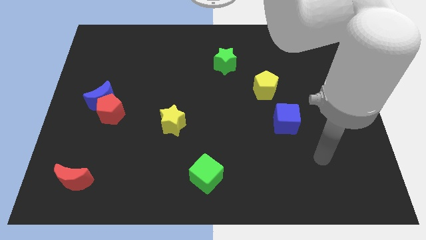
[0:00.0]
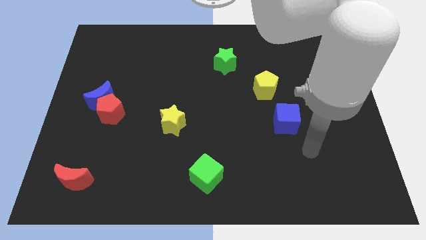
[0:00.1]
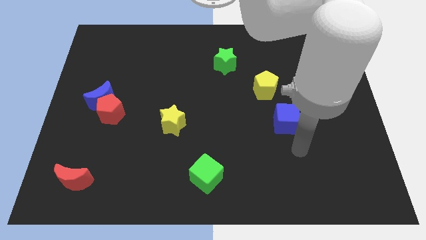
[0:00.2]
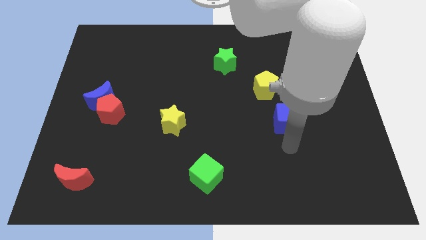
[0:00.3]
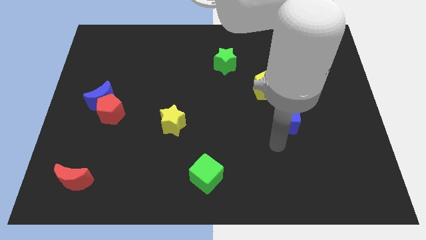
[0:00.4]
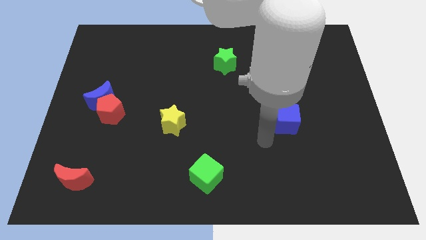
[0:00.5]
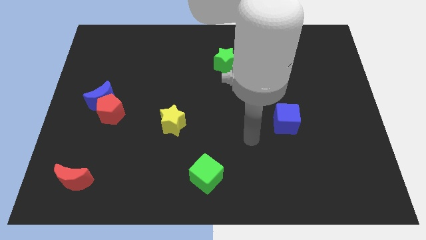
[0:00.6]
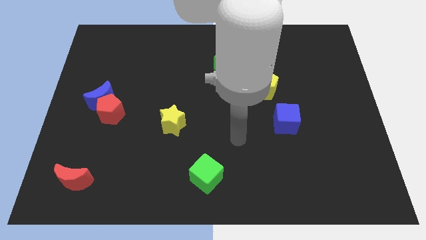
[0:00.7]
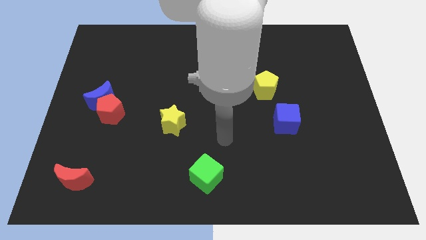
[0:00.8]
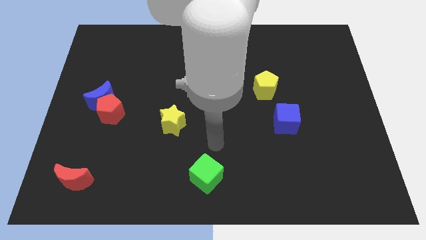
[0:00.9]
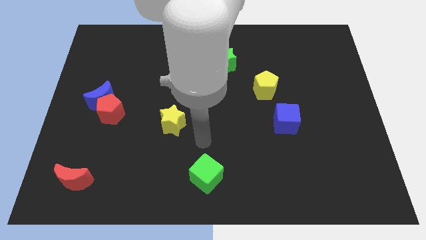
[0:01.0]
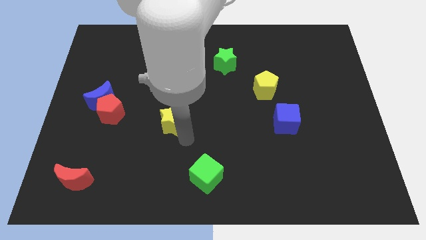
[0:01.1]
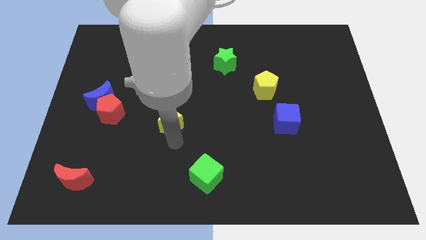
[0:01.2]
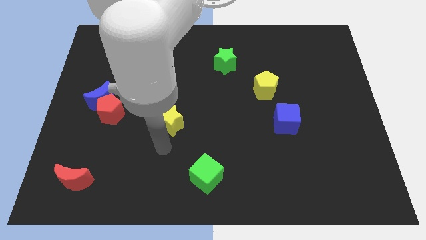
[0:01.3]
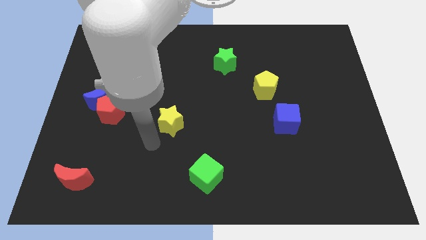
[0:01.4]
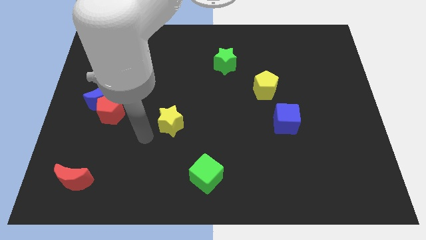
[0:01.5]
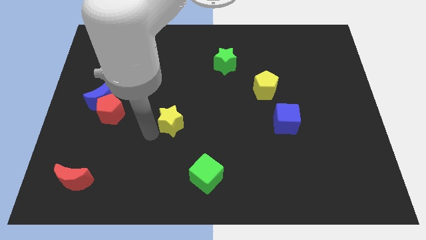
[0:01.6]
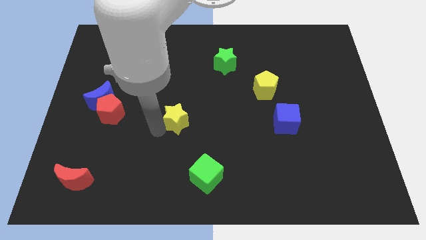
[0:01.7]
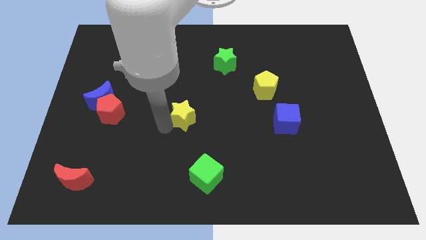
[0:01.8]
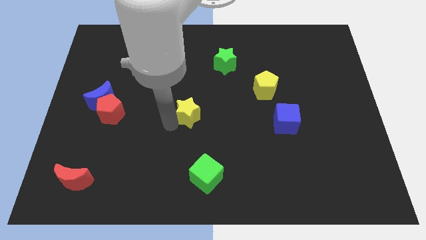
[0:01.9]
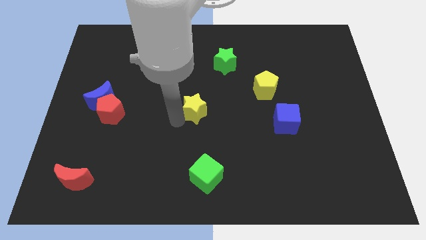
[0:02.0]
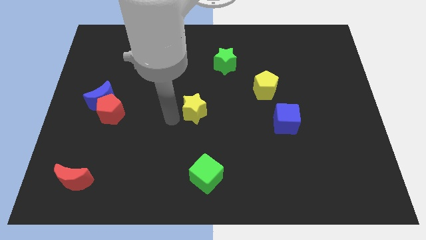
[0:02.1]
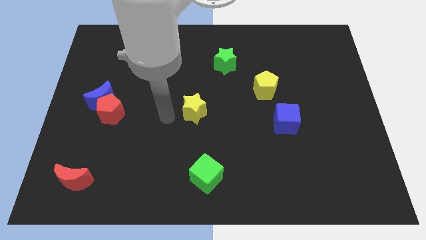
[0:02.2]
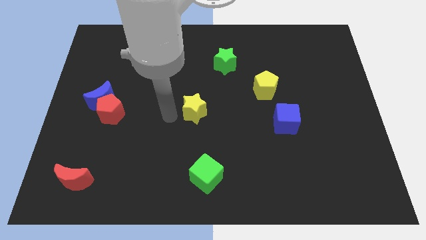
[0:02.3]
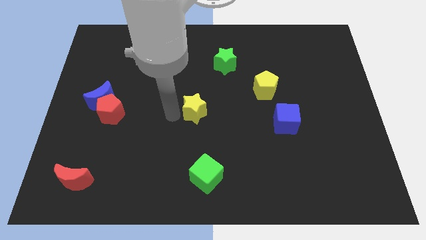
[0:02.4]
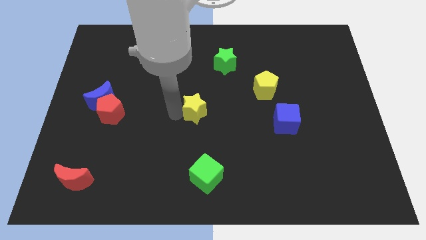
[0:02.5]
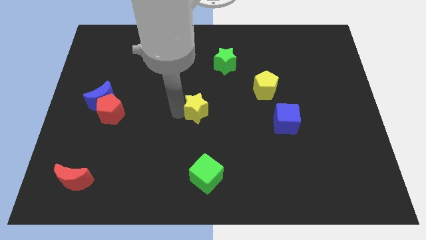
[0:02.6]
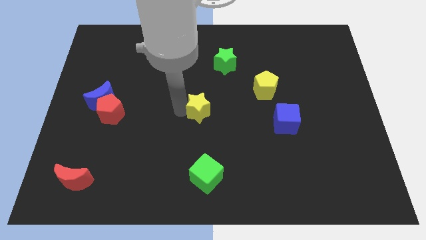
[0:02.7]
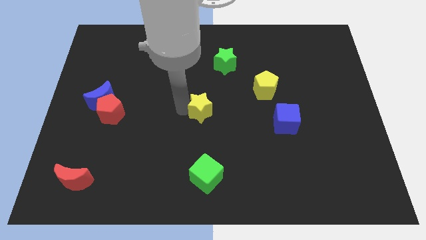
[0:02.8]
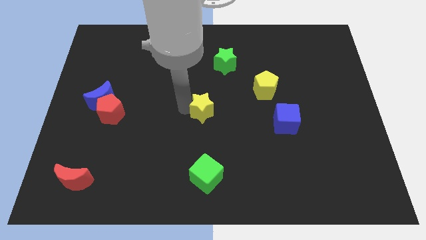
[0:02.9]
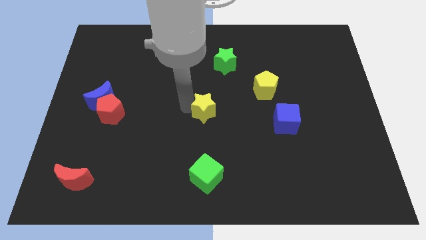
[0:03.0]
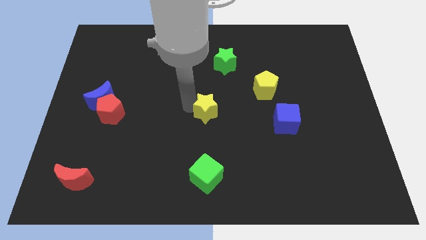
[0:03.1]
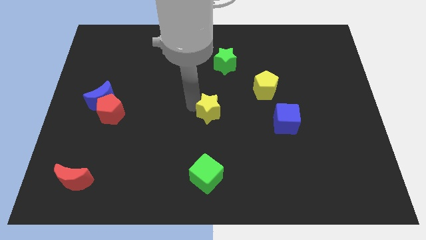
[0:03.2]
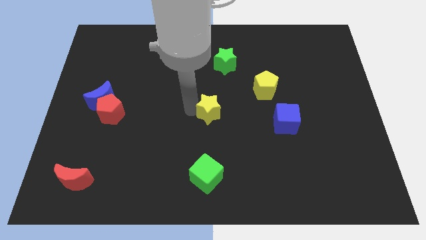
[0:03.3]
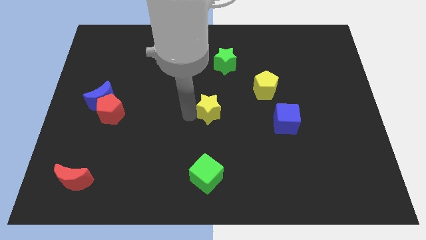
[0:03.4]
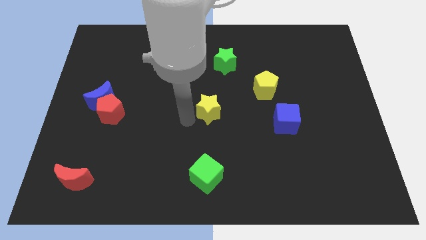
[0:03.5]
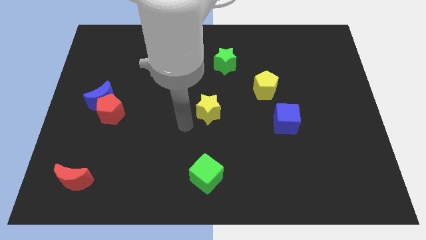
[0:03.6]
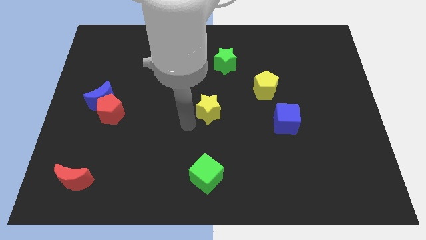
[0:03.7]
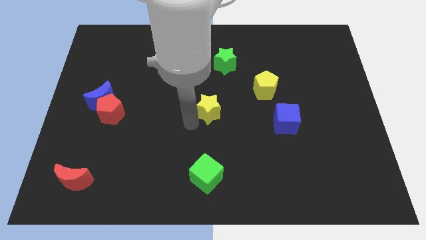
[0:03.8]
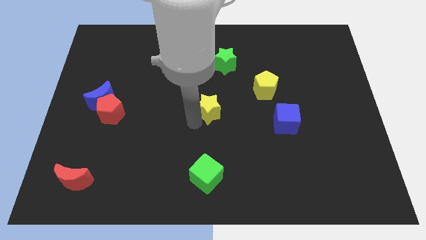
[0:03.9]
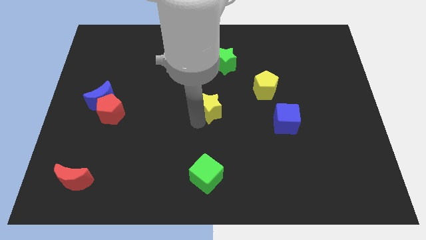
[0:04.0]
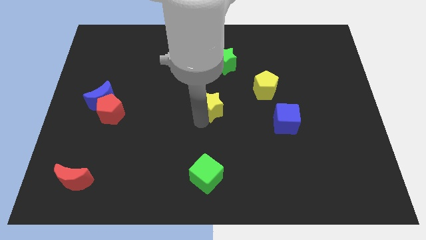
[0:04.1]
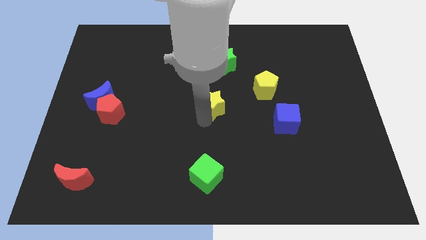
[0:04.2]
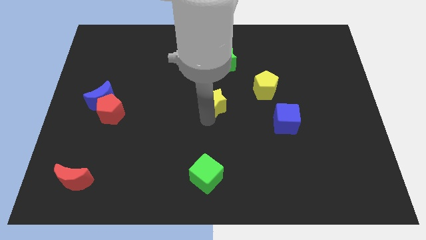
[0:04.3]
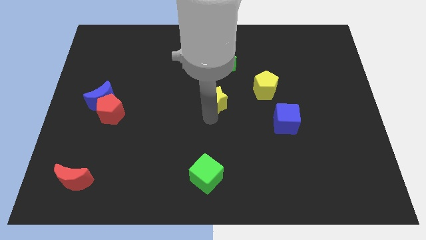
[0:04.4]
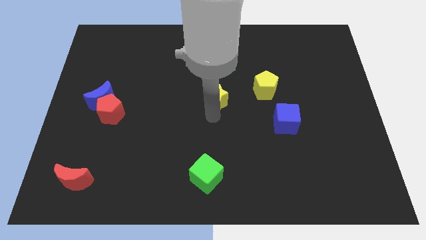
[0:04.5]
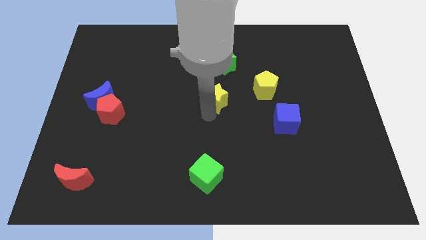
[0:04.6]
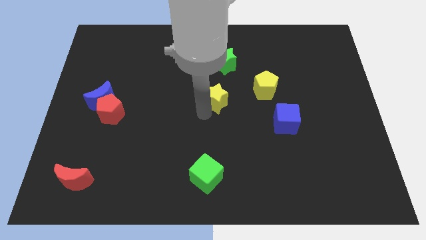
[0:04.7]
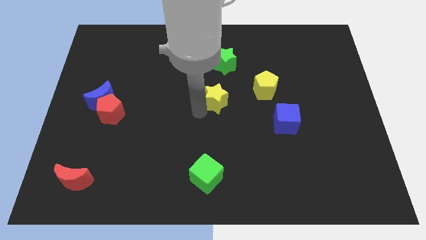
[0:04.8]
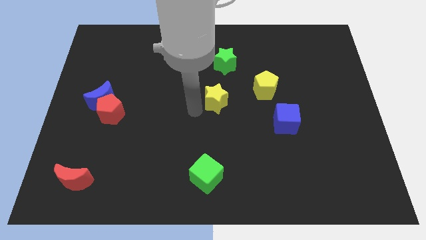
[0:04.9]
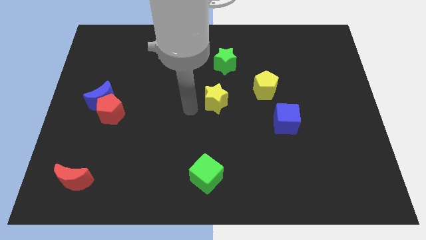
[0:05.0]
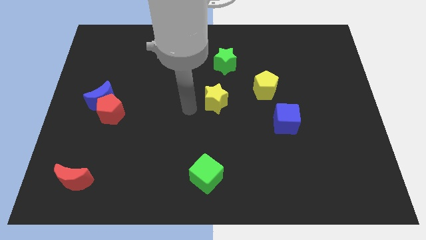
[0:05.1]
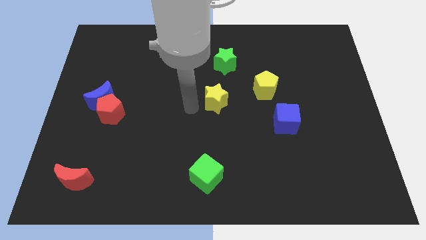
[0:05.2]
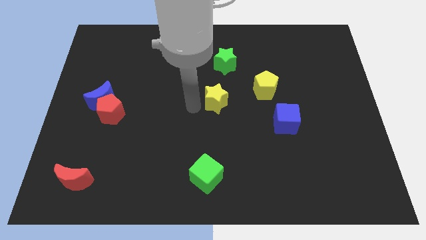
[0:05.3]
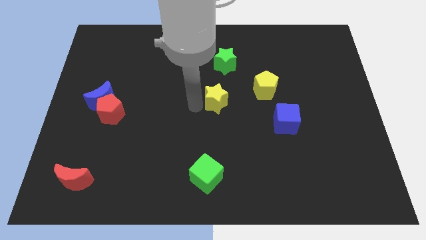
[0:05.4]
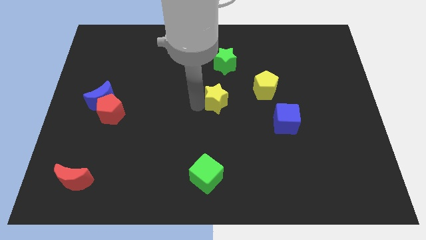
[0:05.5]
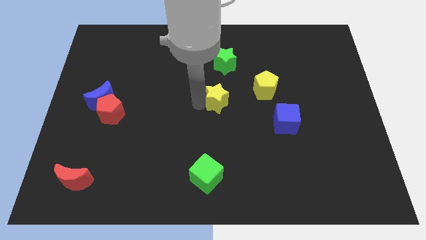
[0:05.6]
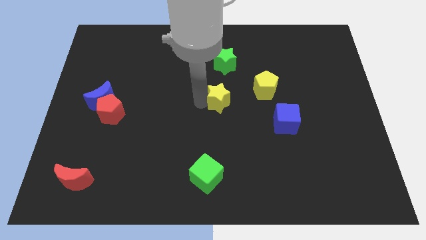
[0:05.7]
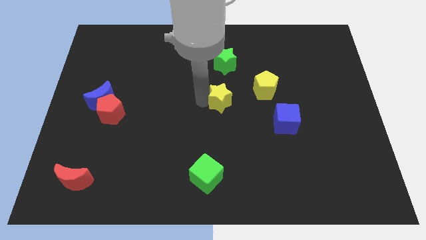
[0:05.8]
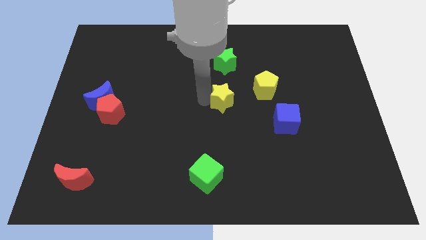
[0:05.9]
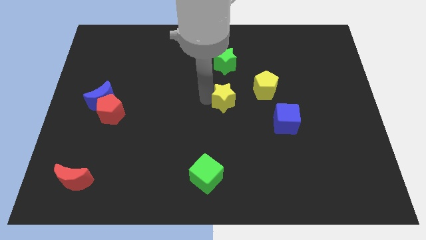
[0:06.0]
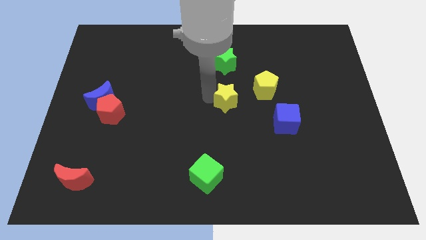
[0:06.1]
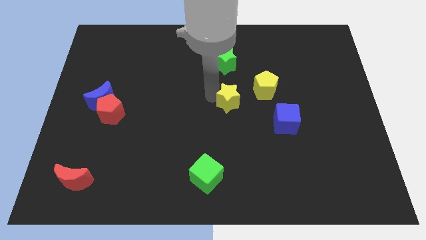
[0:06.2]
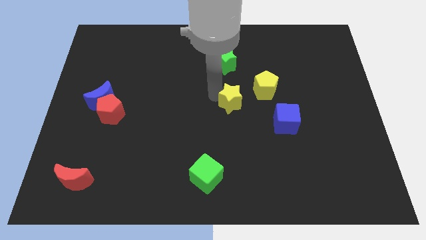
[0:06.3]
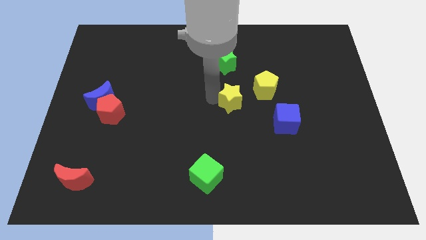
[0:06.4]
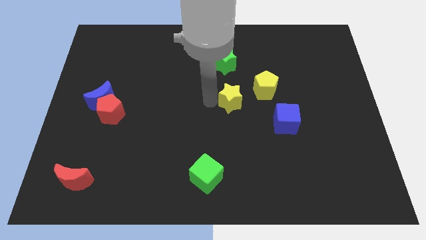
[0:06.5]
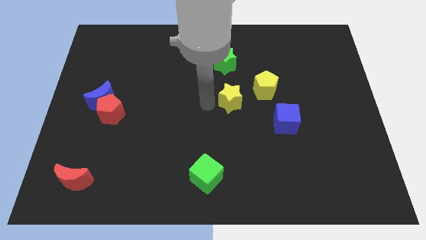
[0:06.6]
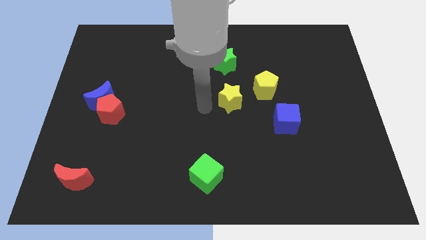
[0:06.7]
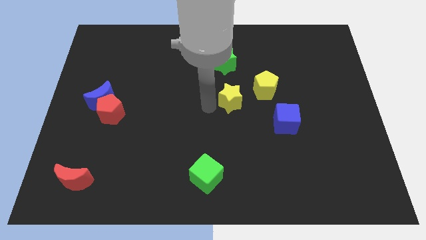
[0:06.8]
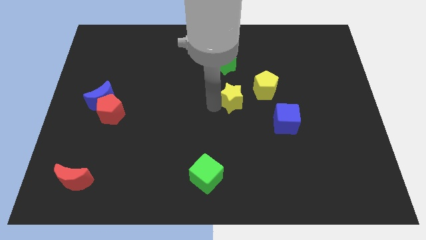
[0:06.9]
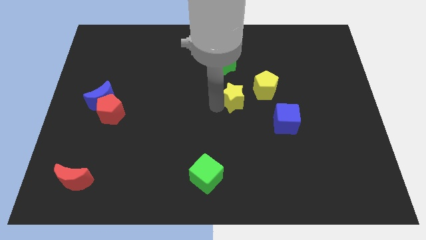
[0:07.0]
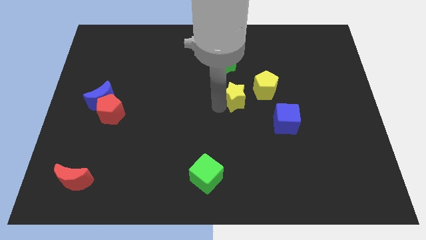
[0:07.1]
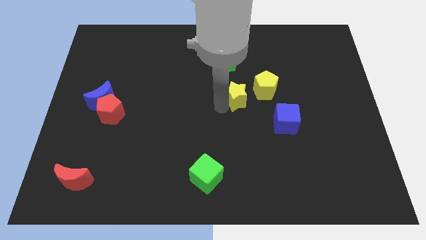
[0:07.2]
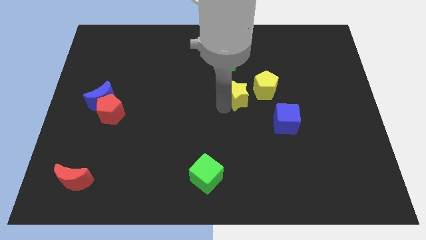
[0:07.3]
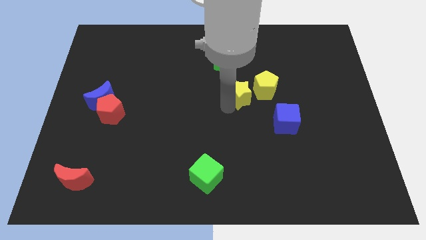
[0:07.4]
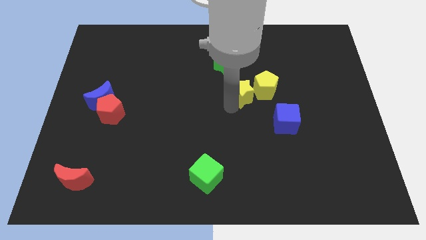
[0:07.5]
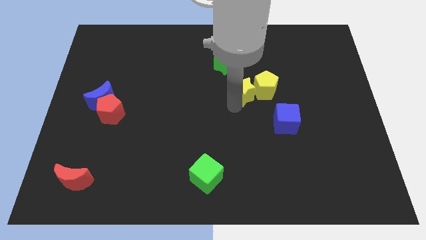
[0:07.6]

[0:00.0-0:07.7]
push the yellow star next to the yellow pentagon
